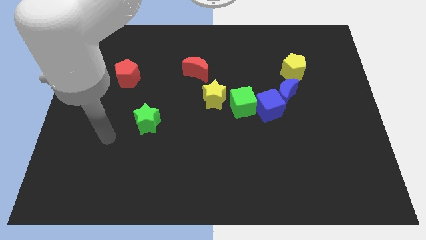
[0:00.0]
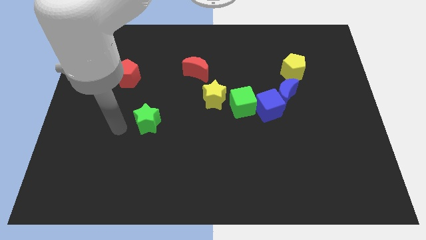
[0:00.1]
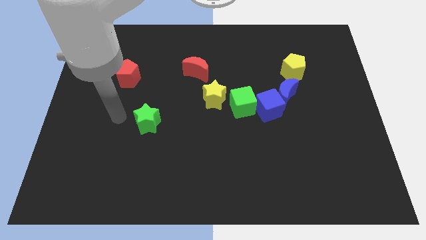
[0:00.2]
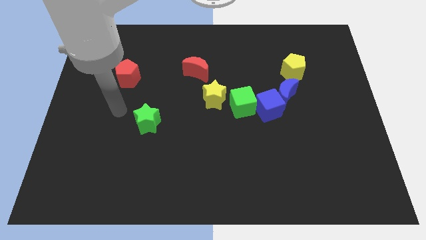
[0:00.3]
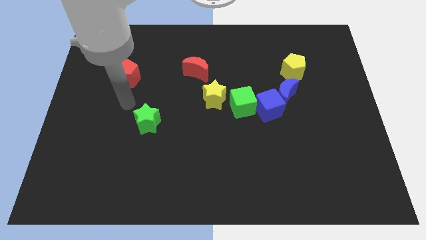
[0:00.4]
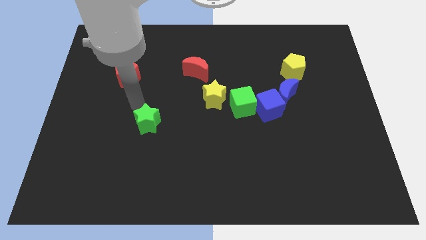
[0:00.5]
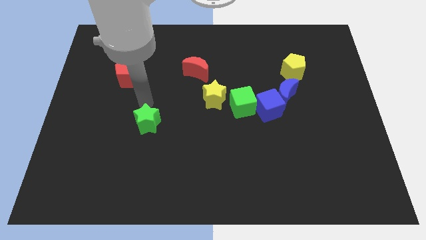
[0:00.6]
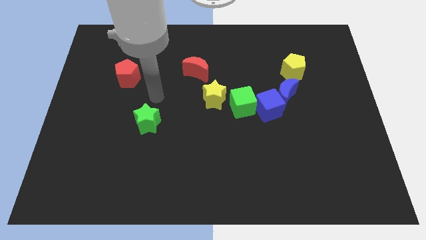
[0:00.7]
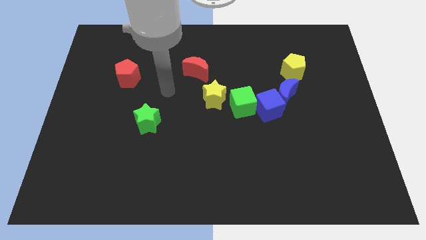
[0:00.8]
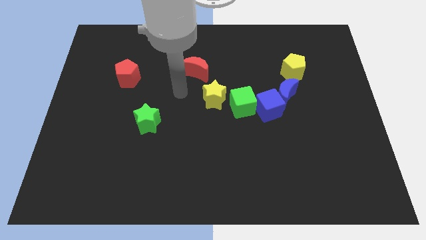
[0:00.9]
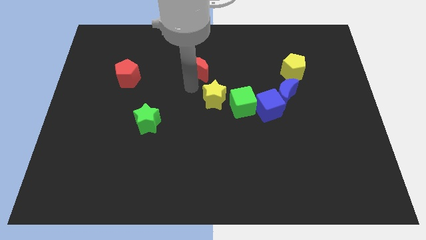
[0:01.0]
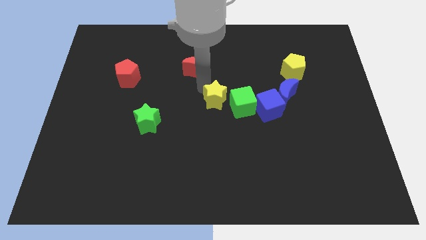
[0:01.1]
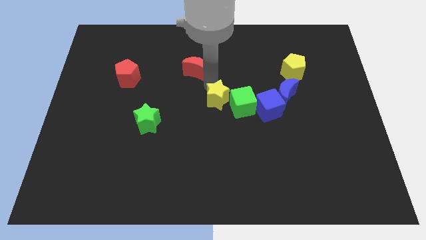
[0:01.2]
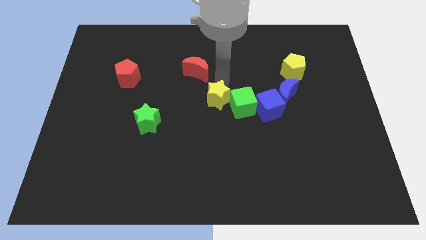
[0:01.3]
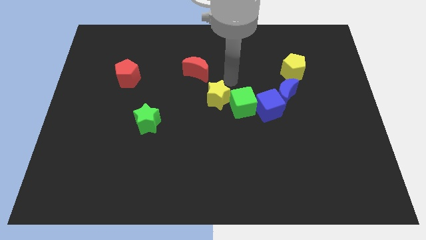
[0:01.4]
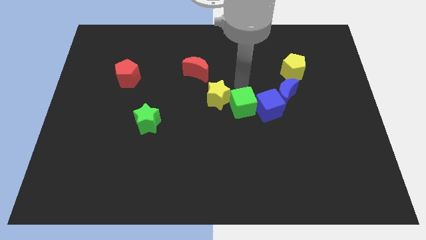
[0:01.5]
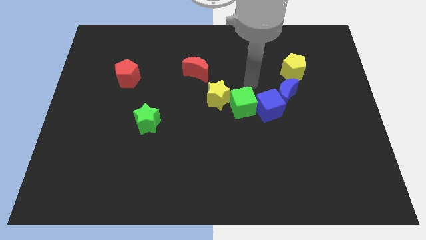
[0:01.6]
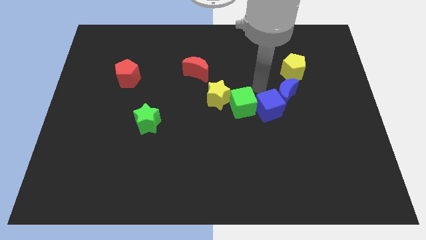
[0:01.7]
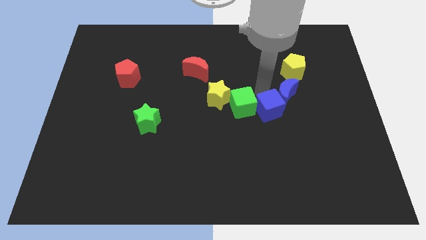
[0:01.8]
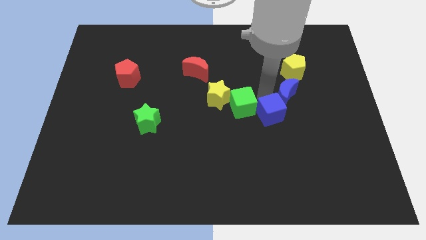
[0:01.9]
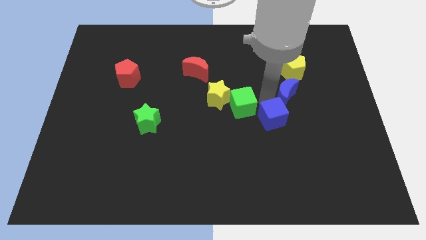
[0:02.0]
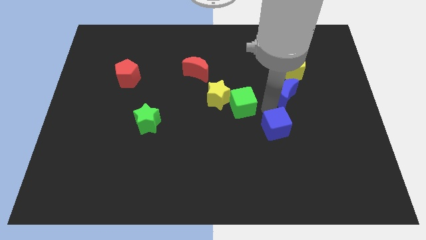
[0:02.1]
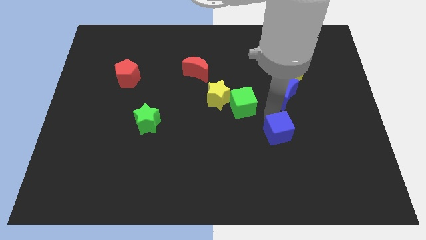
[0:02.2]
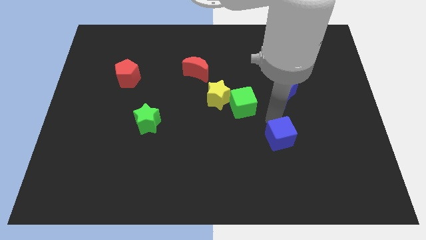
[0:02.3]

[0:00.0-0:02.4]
move the blue cube away from the blue moon and green cube

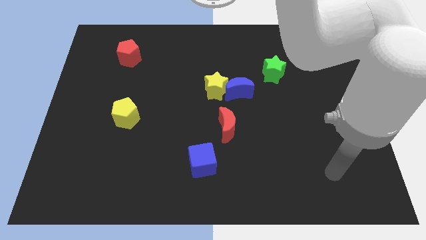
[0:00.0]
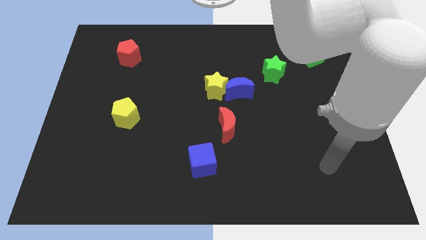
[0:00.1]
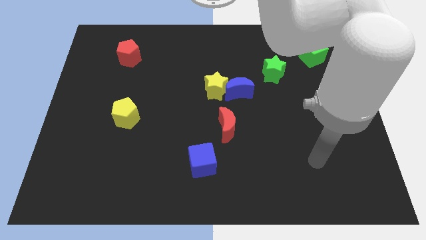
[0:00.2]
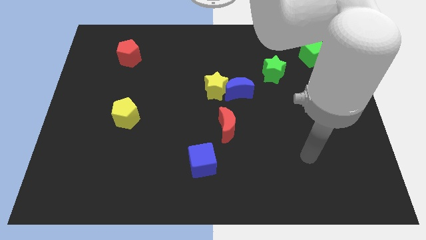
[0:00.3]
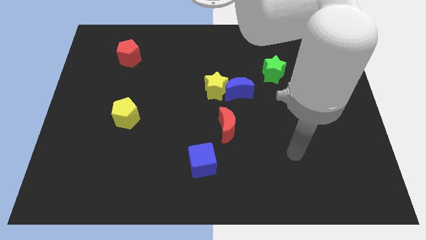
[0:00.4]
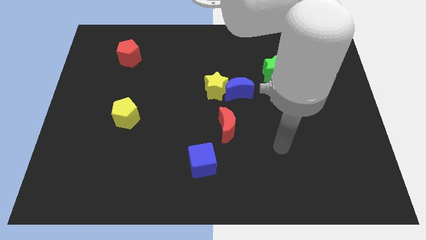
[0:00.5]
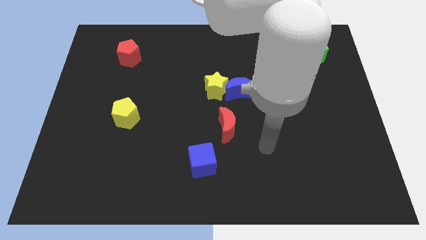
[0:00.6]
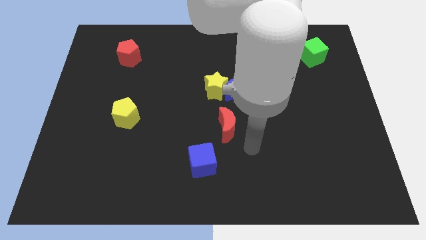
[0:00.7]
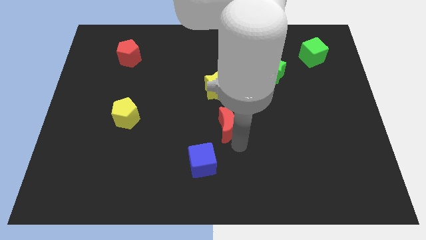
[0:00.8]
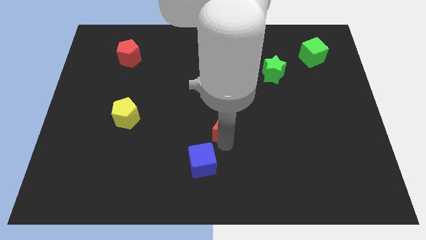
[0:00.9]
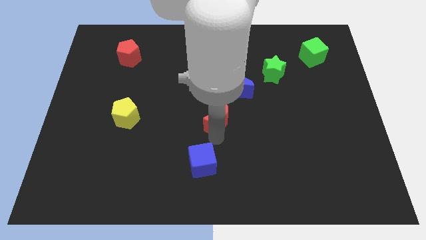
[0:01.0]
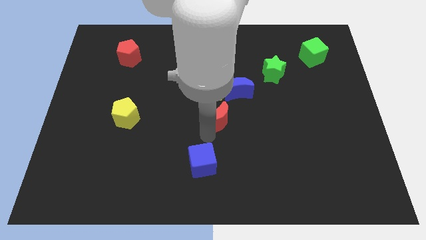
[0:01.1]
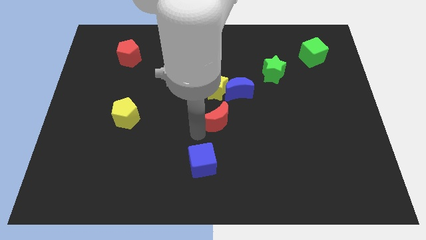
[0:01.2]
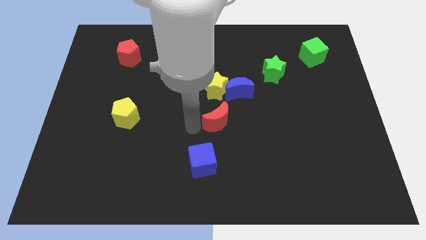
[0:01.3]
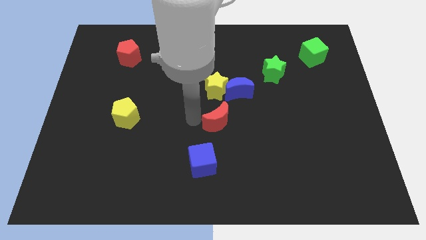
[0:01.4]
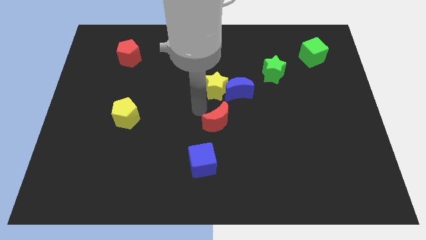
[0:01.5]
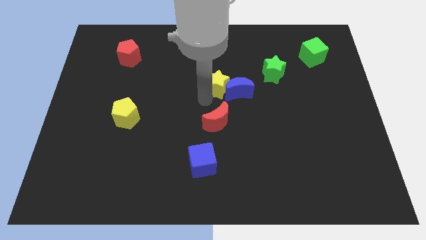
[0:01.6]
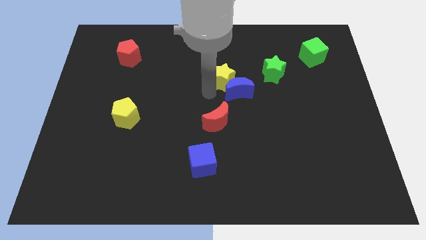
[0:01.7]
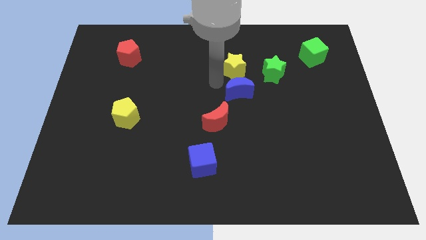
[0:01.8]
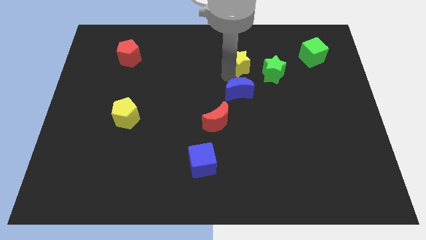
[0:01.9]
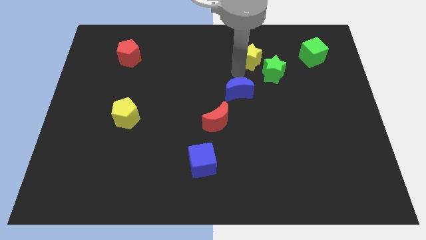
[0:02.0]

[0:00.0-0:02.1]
separate the blue moon from the yellow star

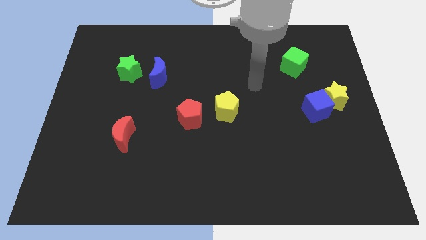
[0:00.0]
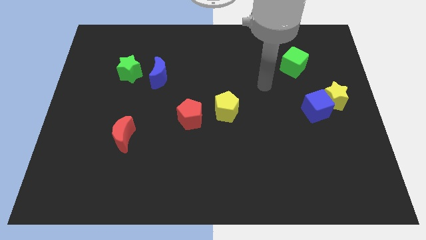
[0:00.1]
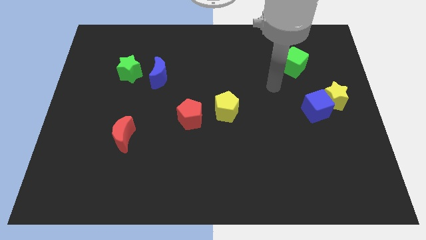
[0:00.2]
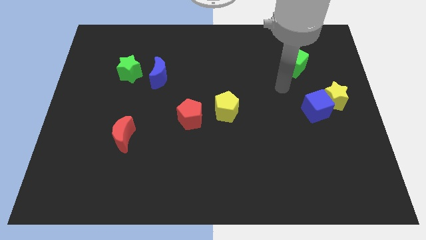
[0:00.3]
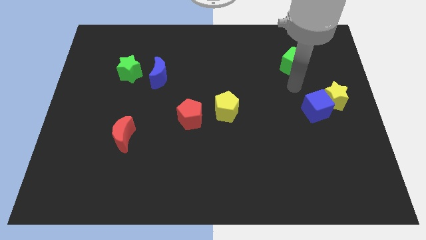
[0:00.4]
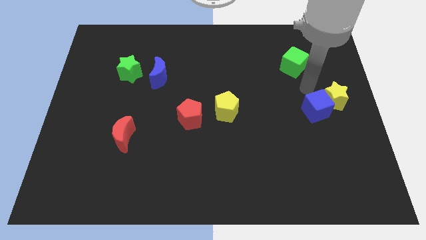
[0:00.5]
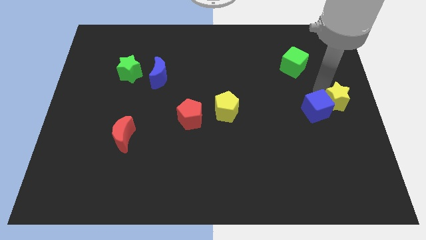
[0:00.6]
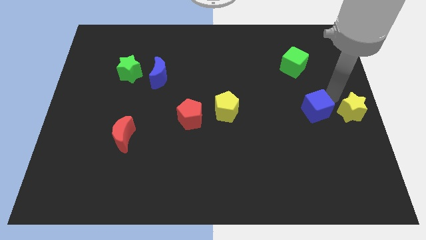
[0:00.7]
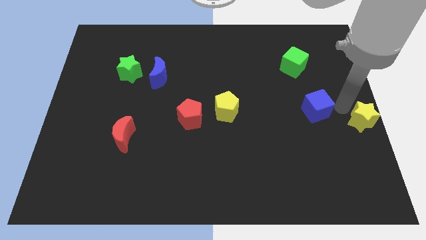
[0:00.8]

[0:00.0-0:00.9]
pull the blue cube apart from the yellow star

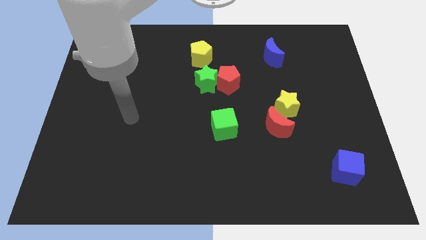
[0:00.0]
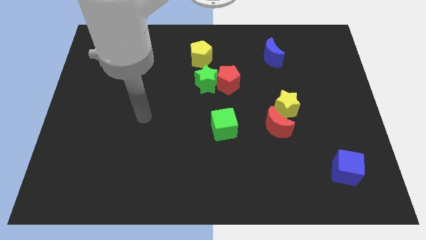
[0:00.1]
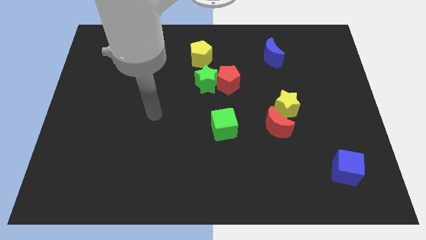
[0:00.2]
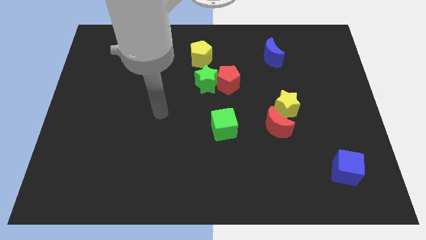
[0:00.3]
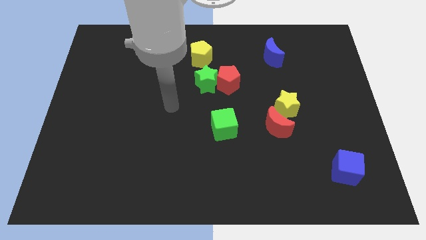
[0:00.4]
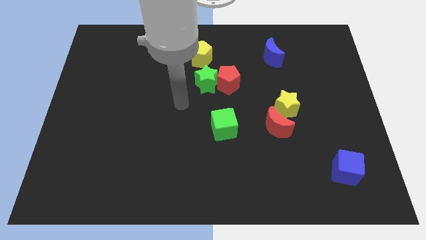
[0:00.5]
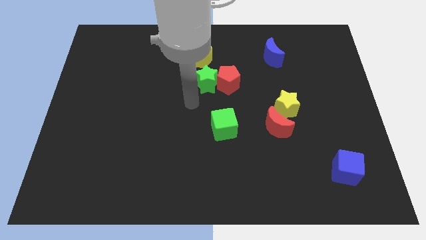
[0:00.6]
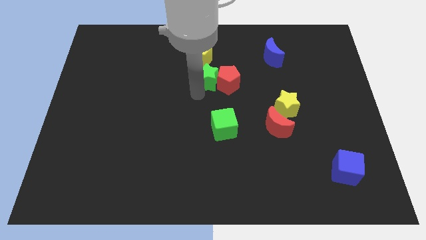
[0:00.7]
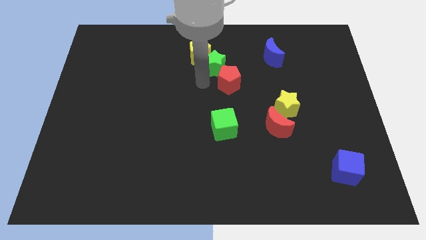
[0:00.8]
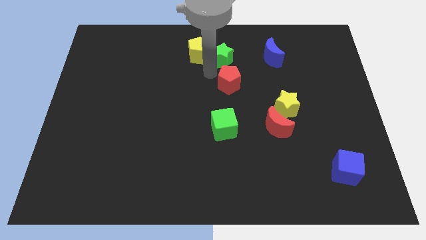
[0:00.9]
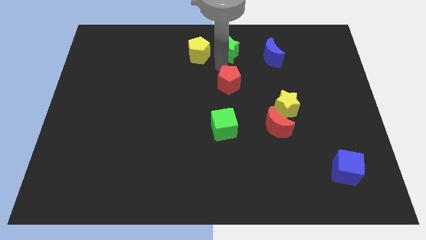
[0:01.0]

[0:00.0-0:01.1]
pull the red pentagon apart from the green star

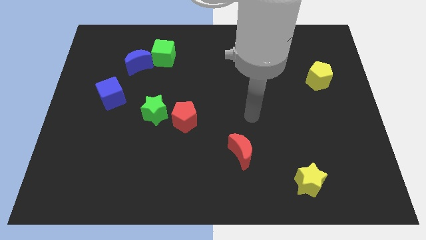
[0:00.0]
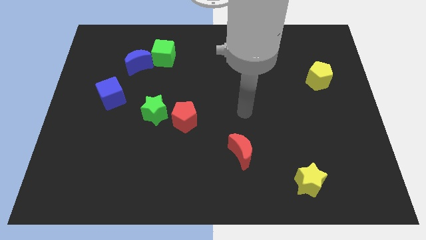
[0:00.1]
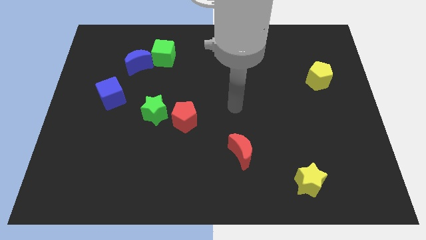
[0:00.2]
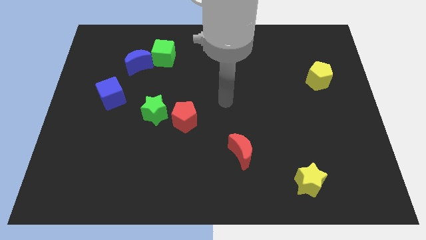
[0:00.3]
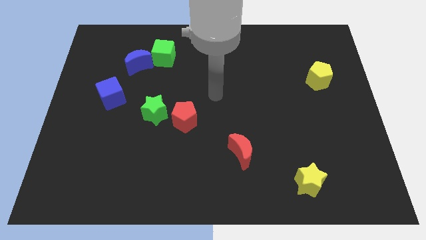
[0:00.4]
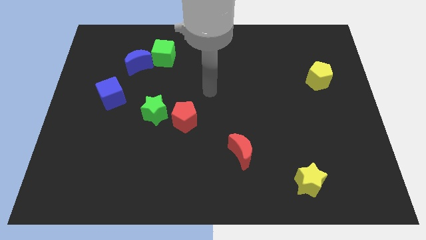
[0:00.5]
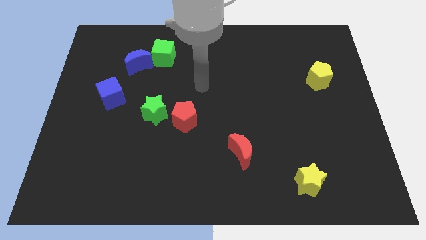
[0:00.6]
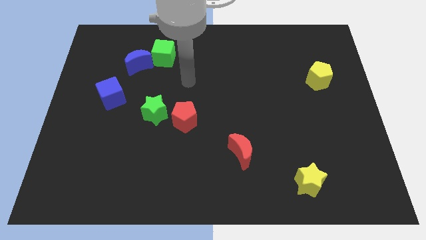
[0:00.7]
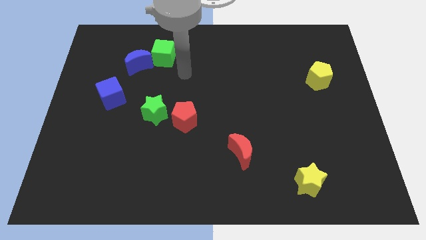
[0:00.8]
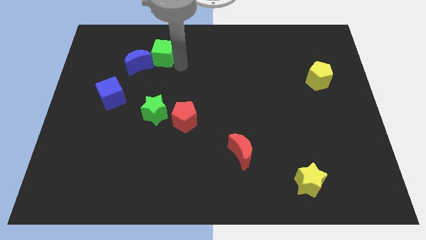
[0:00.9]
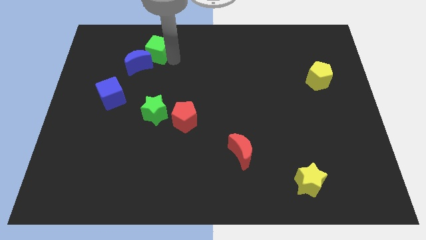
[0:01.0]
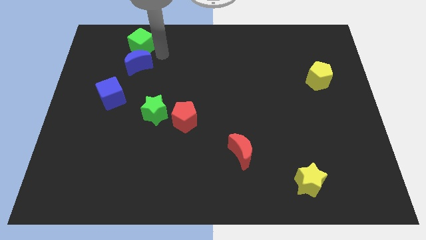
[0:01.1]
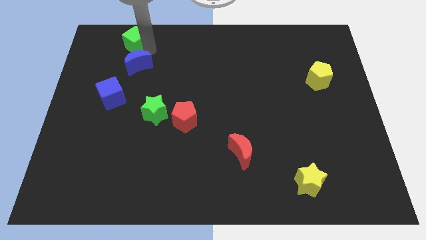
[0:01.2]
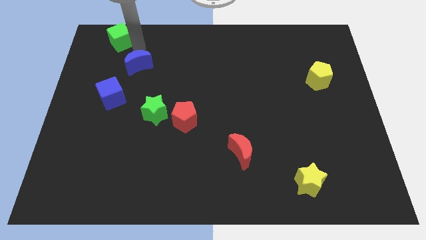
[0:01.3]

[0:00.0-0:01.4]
separate the blue moon from the green cube

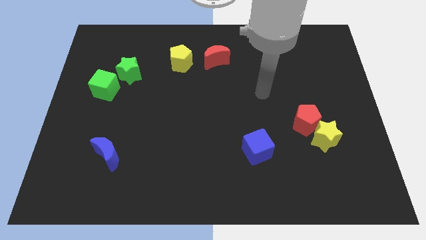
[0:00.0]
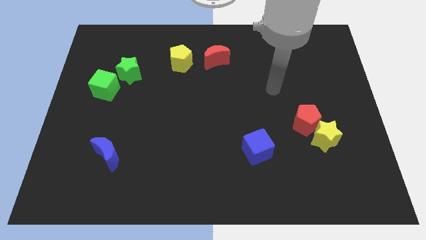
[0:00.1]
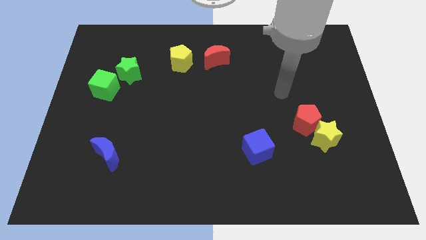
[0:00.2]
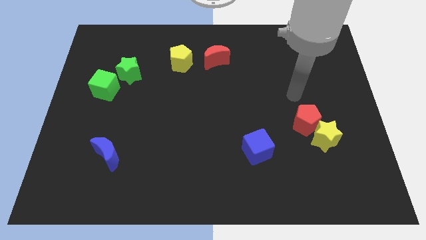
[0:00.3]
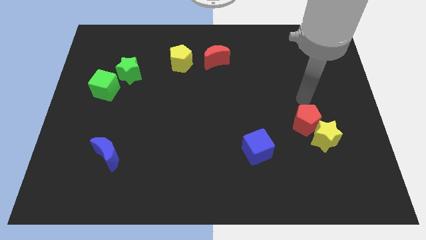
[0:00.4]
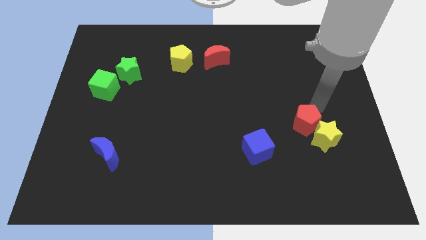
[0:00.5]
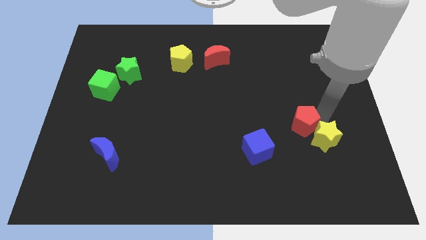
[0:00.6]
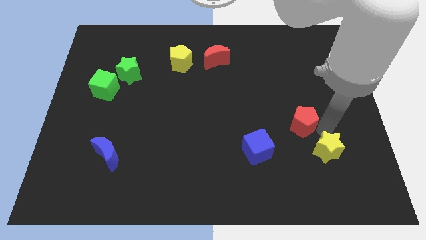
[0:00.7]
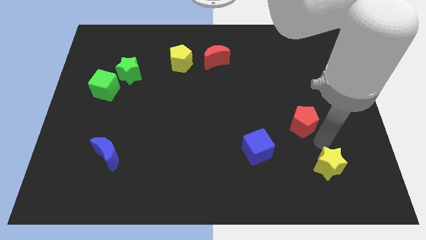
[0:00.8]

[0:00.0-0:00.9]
move the red pentagon away from the yellow star

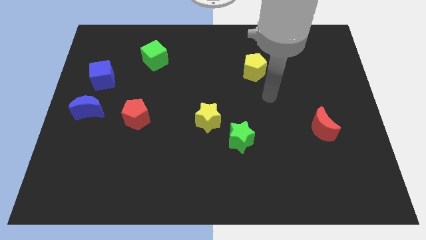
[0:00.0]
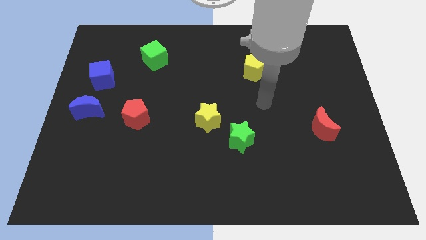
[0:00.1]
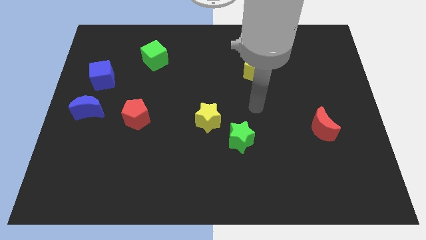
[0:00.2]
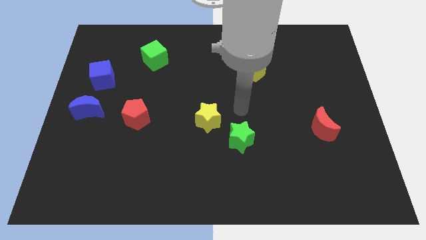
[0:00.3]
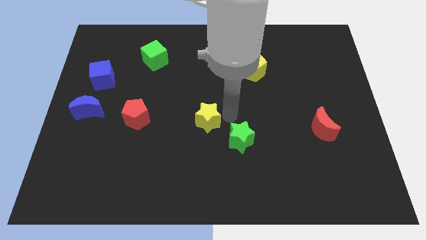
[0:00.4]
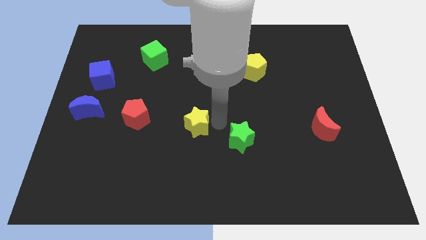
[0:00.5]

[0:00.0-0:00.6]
separate the green star from the yellow star
